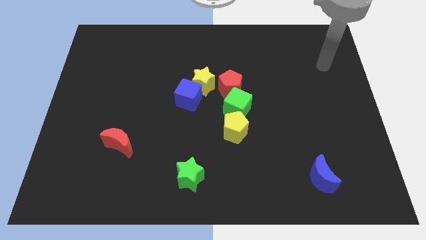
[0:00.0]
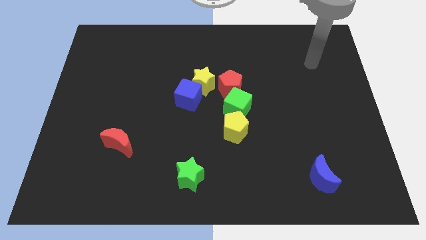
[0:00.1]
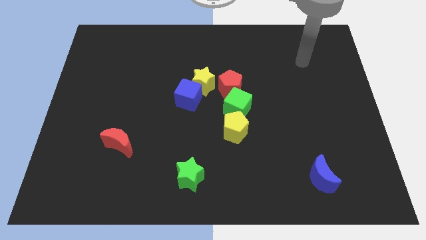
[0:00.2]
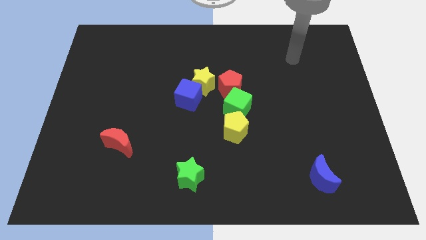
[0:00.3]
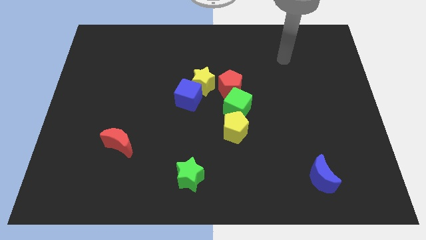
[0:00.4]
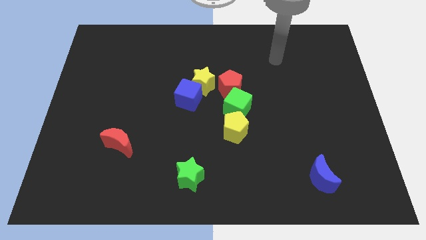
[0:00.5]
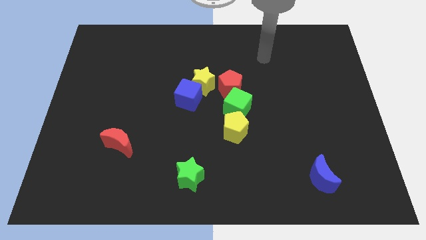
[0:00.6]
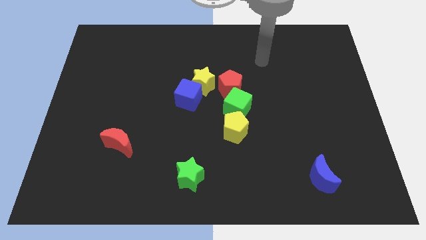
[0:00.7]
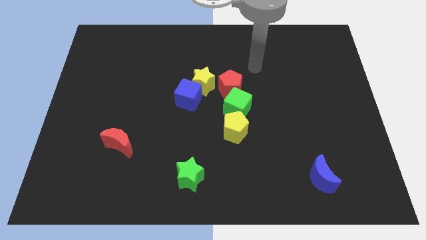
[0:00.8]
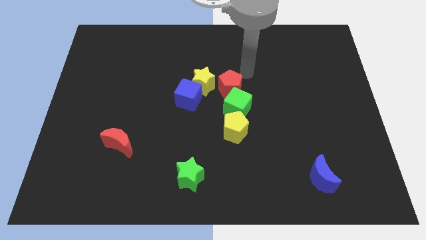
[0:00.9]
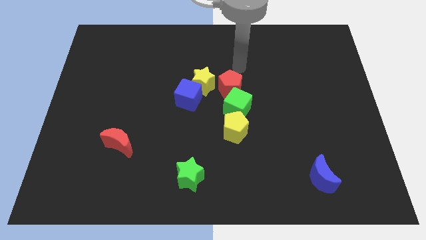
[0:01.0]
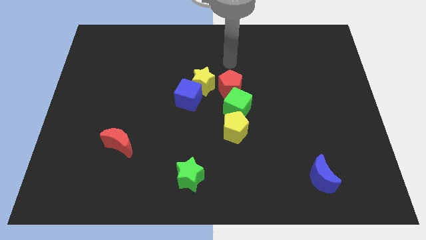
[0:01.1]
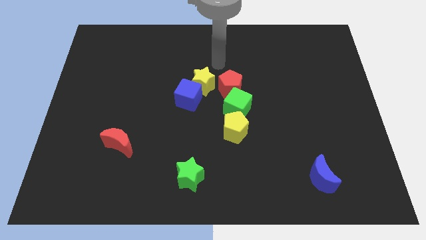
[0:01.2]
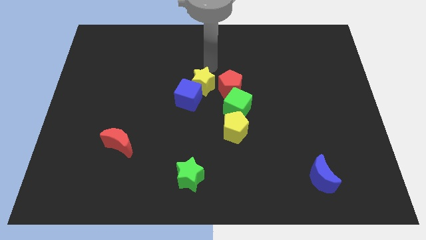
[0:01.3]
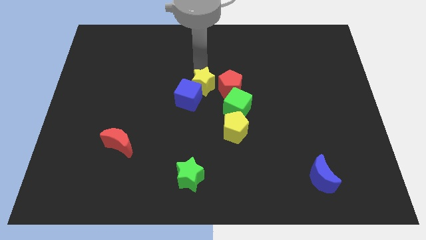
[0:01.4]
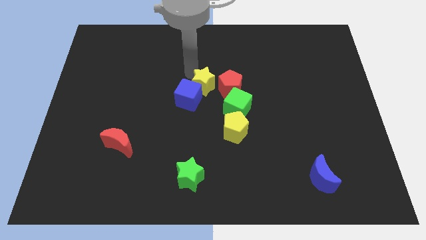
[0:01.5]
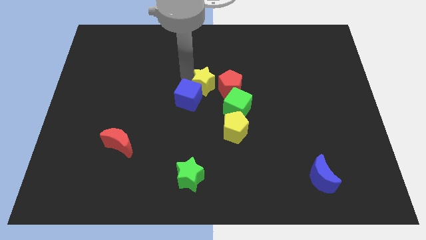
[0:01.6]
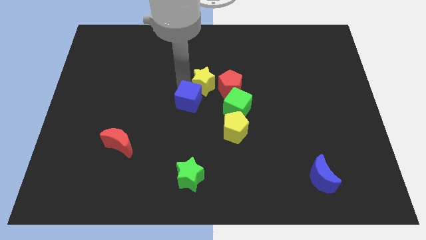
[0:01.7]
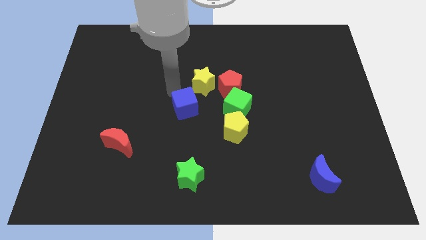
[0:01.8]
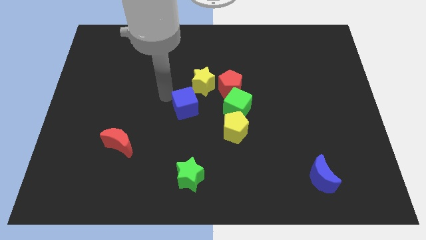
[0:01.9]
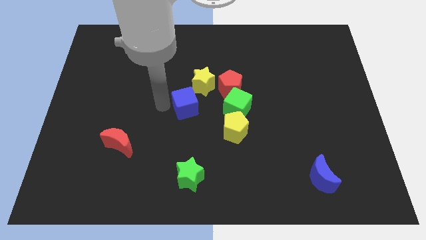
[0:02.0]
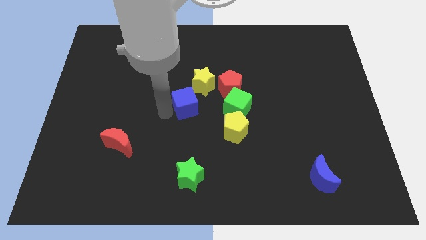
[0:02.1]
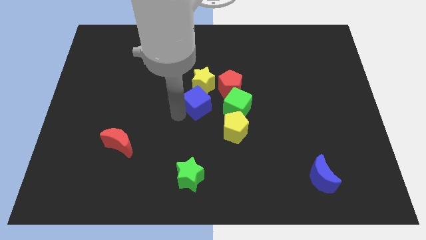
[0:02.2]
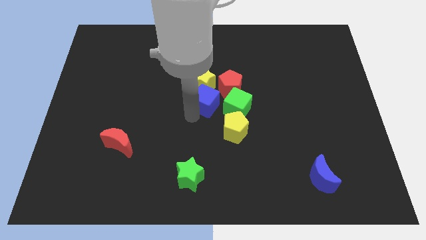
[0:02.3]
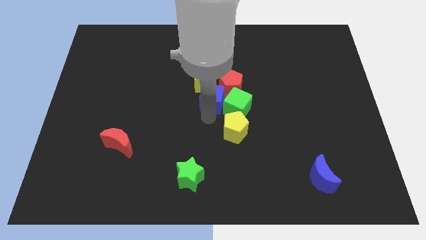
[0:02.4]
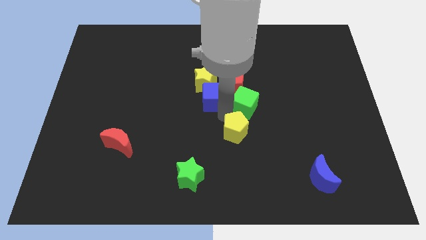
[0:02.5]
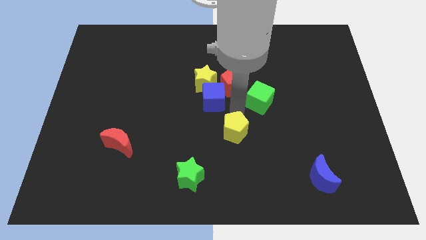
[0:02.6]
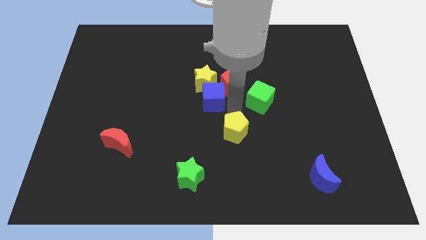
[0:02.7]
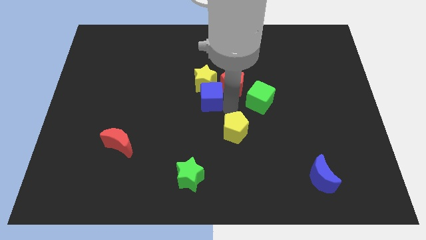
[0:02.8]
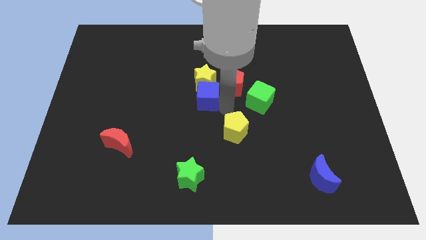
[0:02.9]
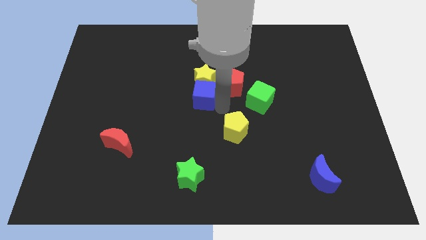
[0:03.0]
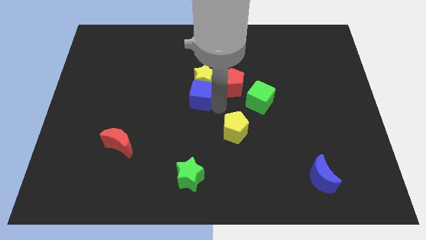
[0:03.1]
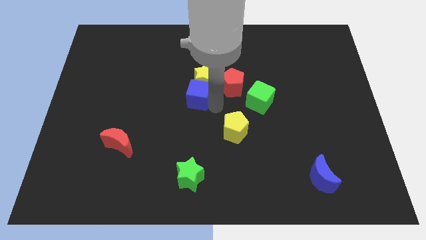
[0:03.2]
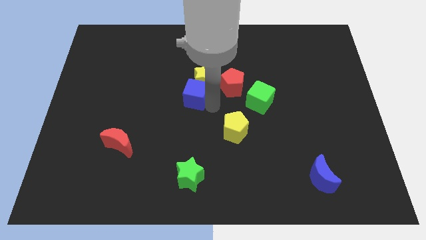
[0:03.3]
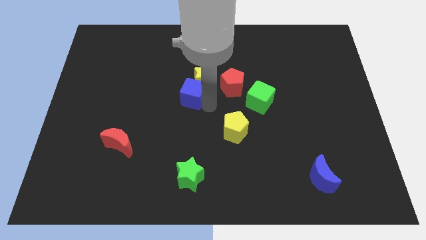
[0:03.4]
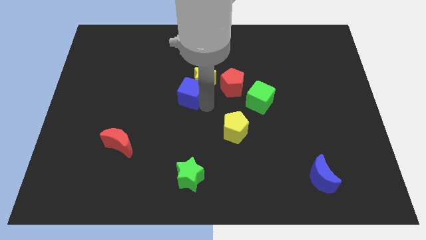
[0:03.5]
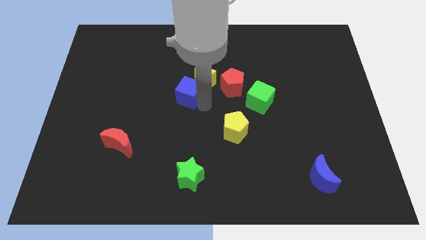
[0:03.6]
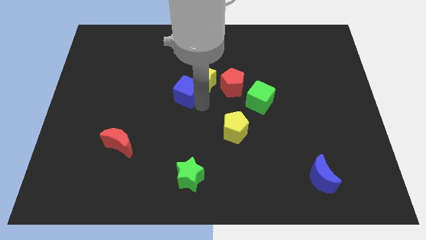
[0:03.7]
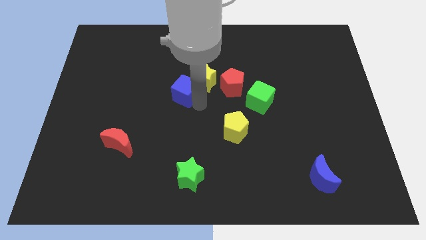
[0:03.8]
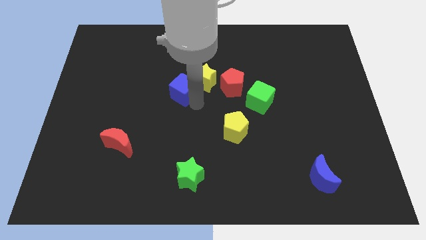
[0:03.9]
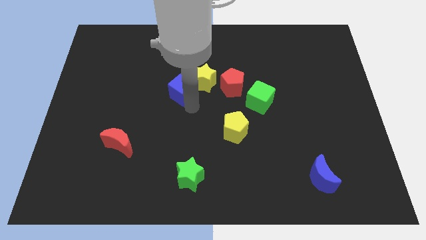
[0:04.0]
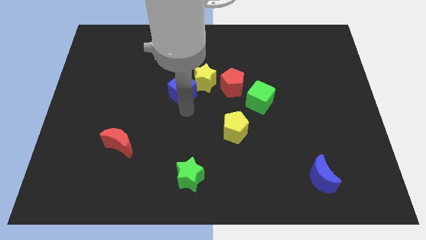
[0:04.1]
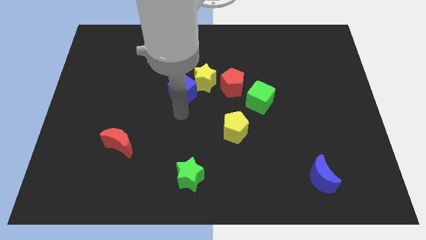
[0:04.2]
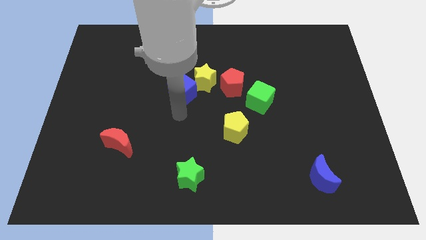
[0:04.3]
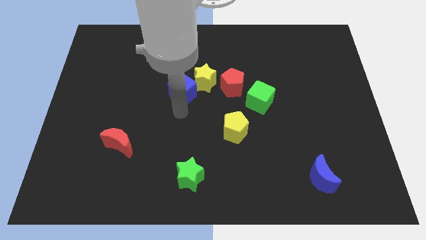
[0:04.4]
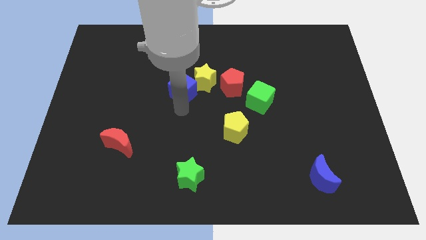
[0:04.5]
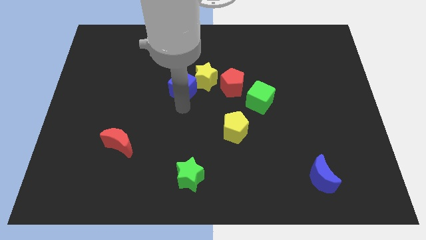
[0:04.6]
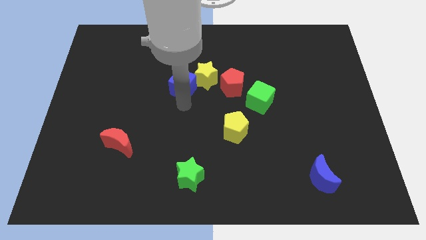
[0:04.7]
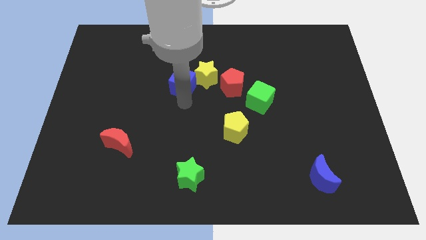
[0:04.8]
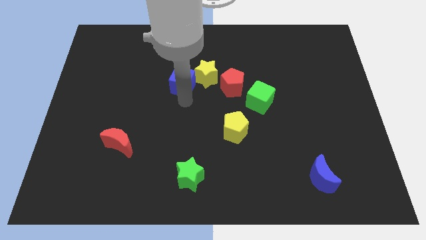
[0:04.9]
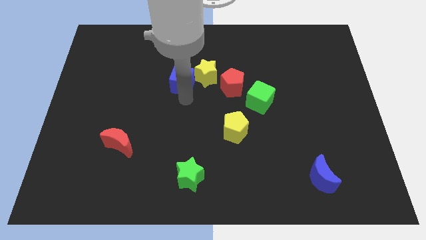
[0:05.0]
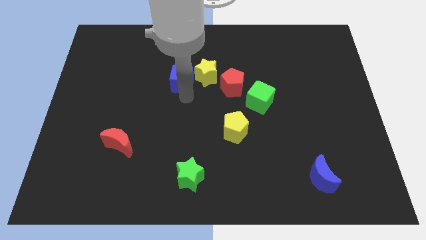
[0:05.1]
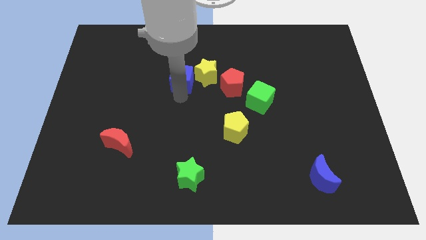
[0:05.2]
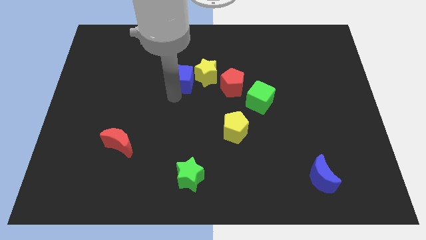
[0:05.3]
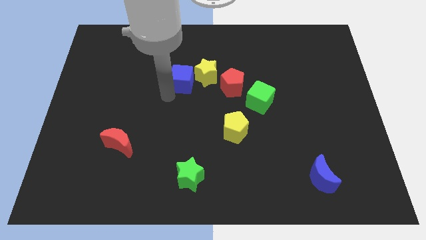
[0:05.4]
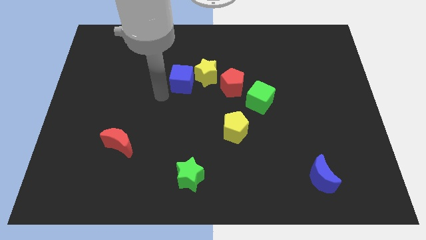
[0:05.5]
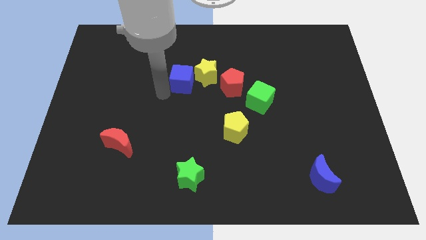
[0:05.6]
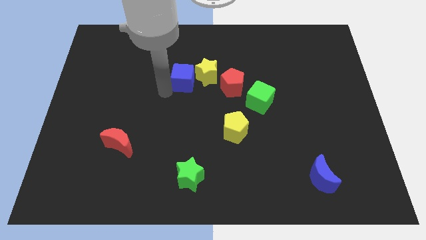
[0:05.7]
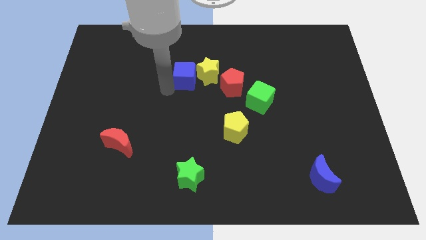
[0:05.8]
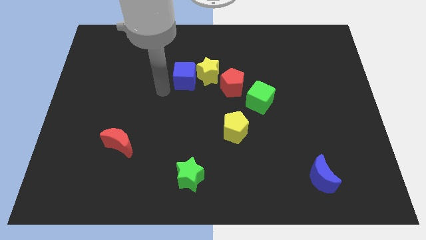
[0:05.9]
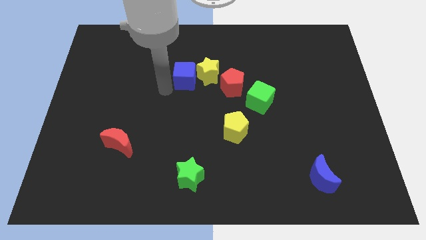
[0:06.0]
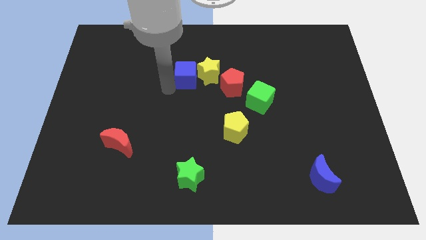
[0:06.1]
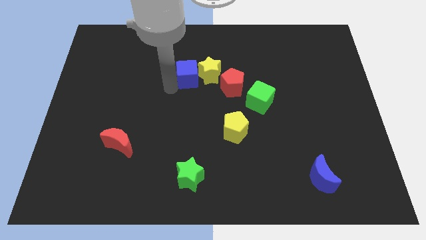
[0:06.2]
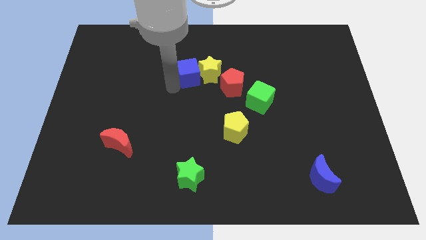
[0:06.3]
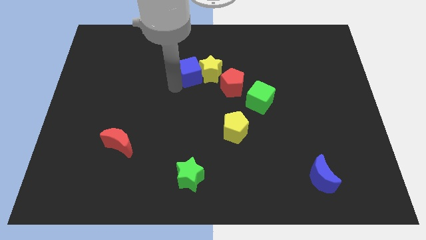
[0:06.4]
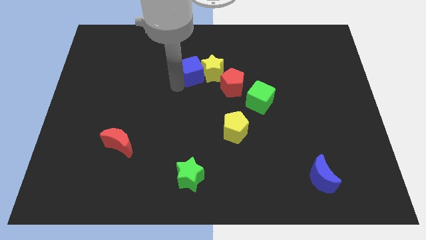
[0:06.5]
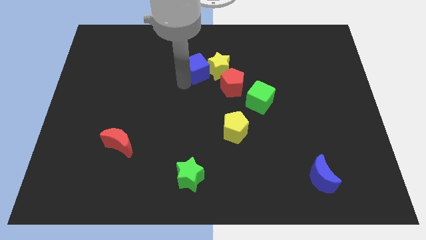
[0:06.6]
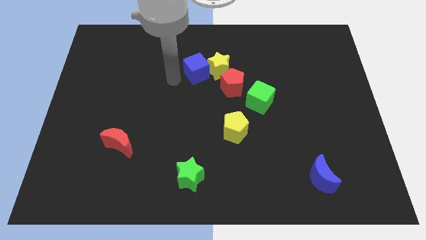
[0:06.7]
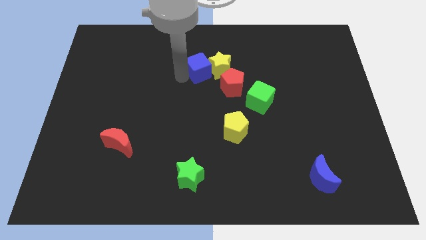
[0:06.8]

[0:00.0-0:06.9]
slide the blue cube up and right a bit

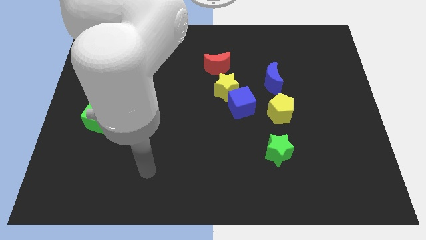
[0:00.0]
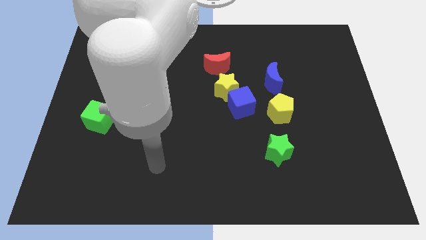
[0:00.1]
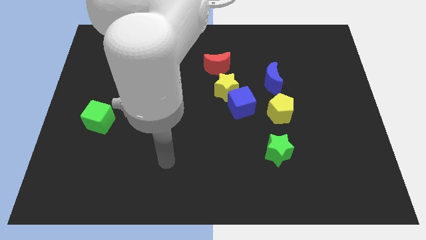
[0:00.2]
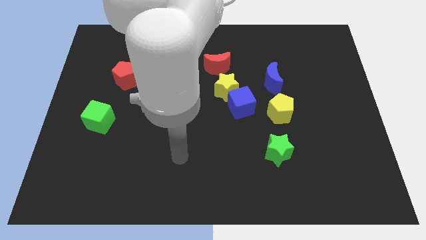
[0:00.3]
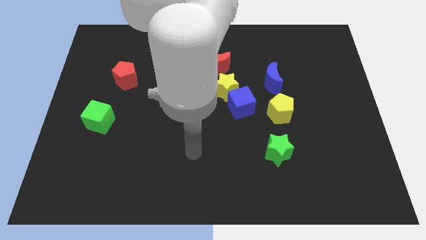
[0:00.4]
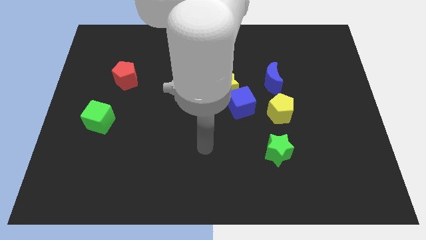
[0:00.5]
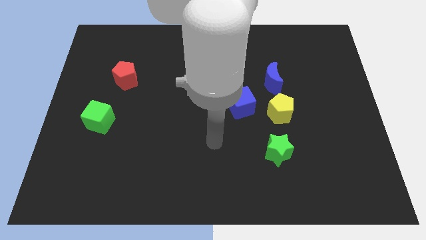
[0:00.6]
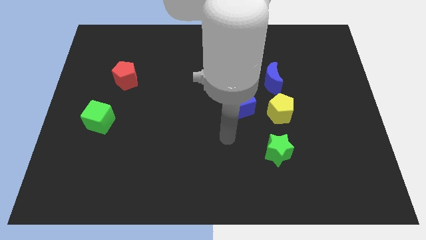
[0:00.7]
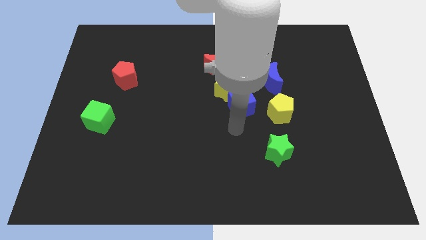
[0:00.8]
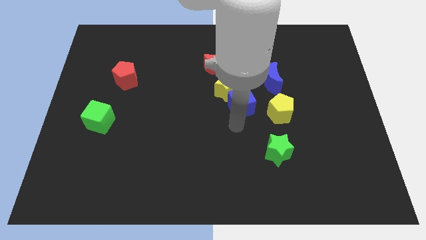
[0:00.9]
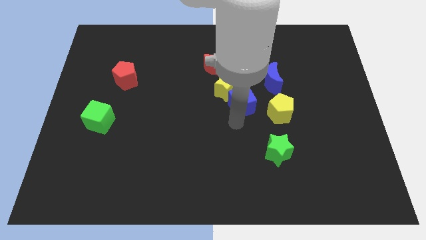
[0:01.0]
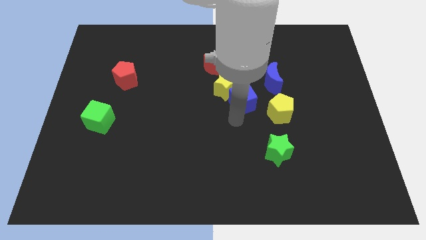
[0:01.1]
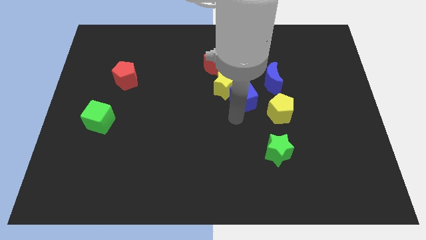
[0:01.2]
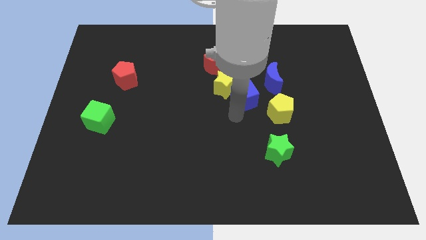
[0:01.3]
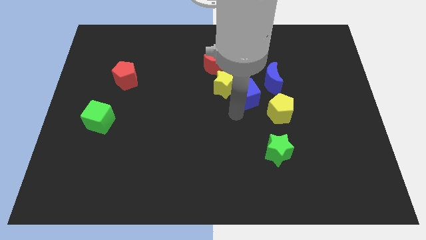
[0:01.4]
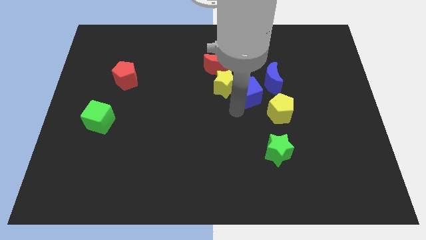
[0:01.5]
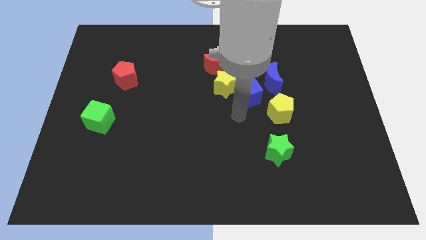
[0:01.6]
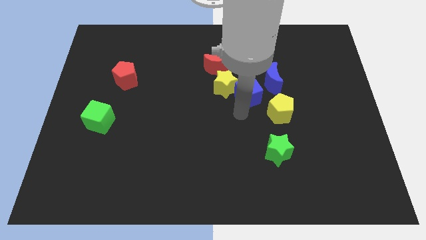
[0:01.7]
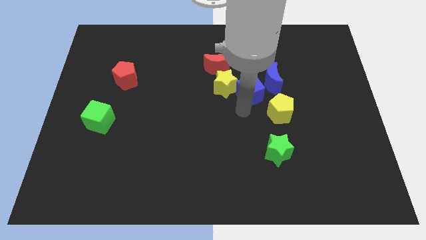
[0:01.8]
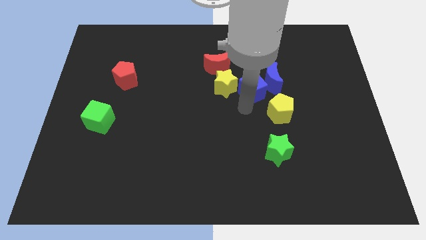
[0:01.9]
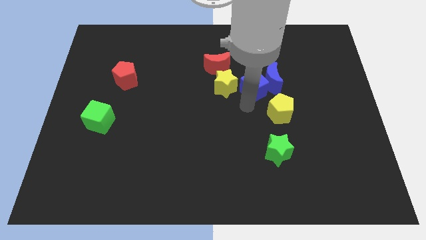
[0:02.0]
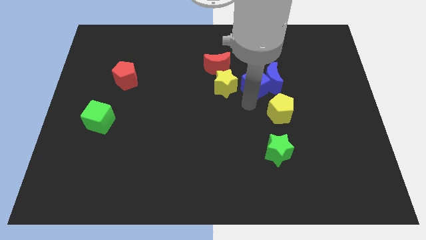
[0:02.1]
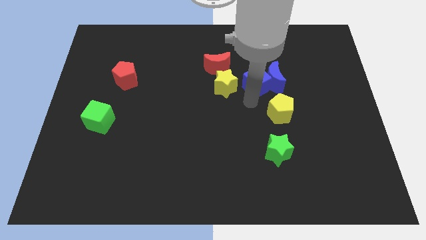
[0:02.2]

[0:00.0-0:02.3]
slide the blue cube upwards and then right slightly
